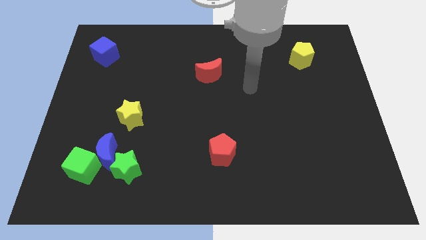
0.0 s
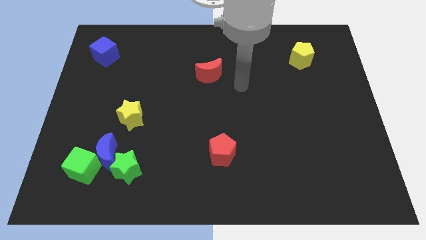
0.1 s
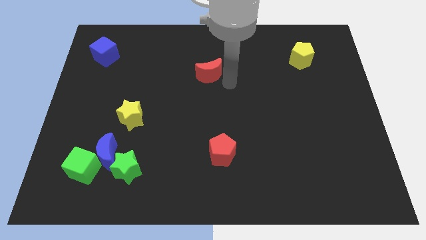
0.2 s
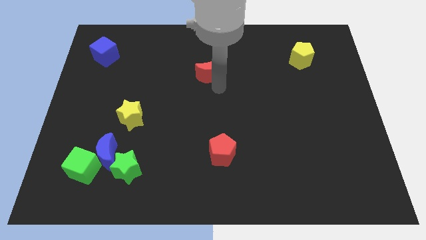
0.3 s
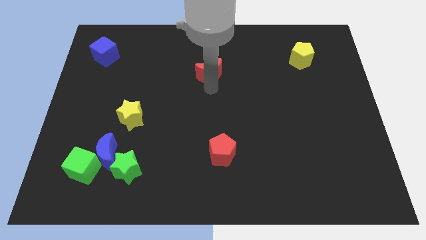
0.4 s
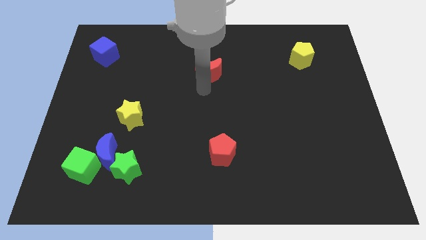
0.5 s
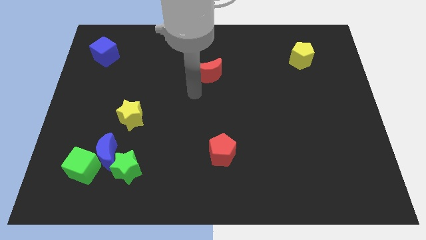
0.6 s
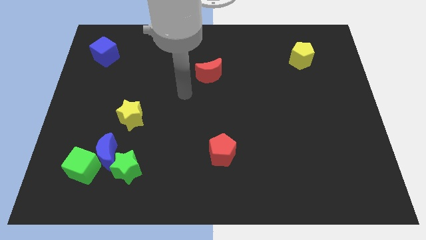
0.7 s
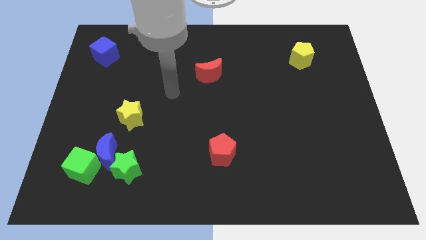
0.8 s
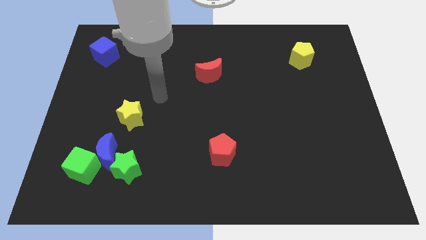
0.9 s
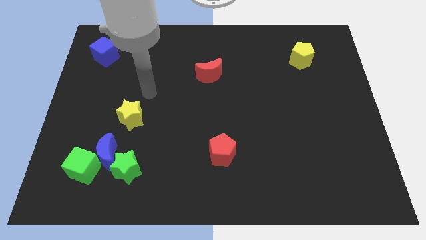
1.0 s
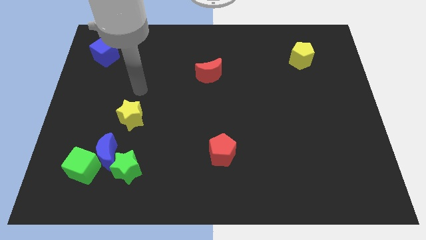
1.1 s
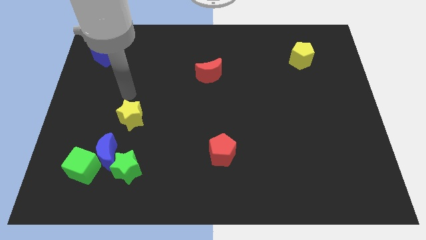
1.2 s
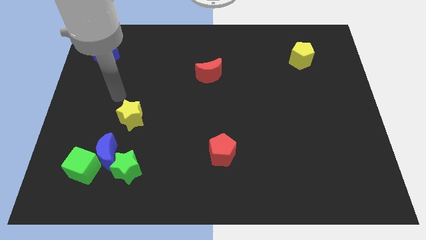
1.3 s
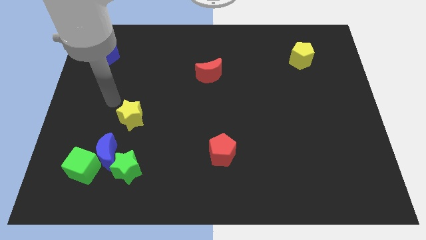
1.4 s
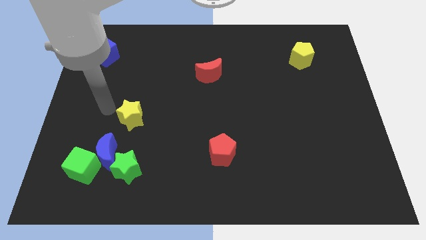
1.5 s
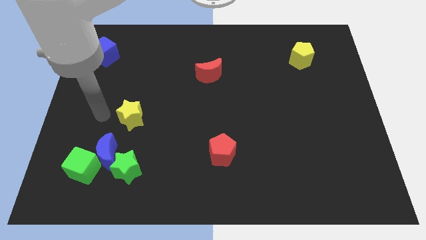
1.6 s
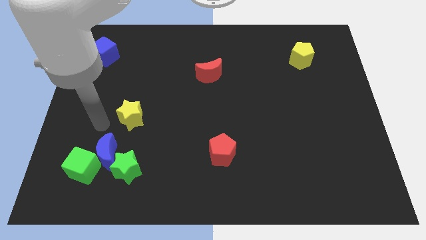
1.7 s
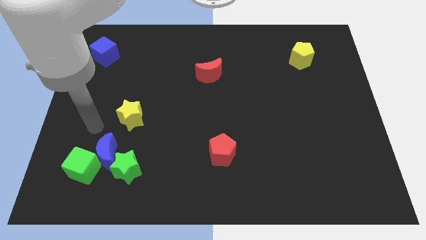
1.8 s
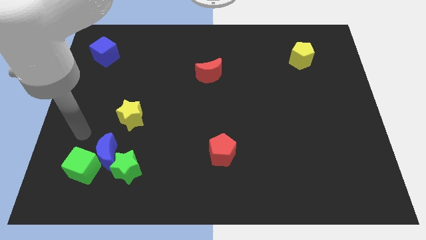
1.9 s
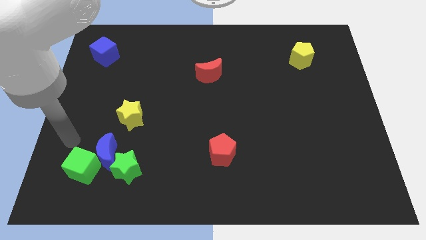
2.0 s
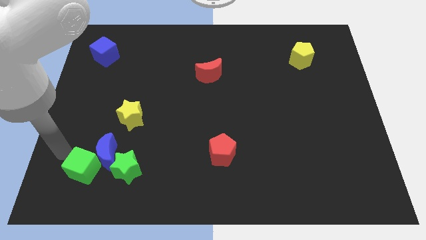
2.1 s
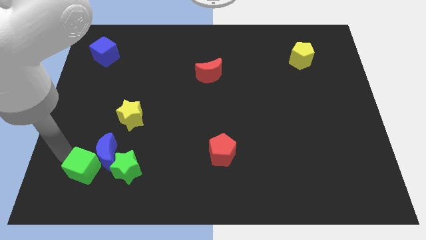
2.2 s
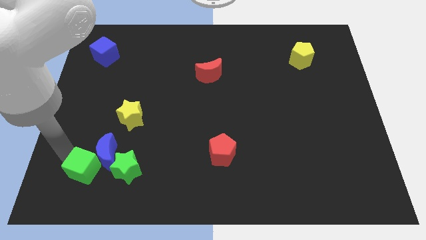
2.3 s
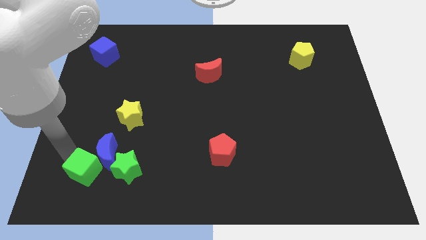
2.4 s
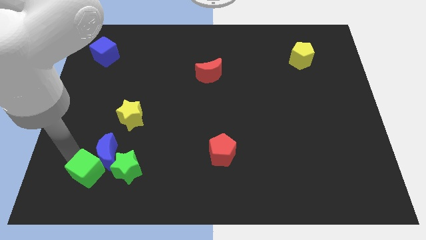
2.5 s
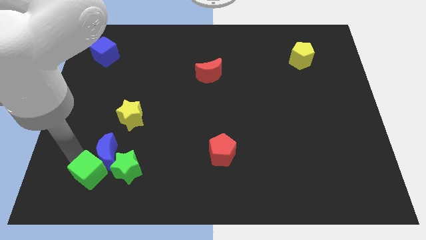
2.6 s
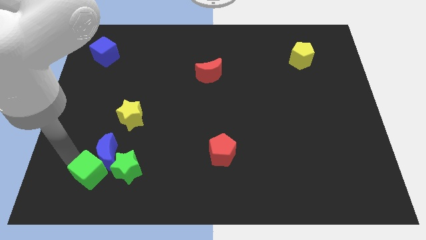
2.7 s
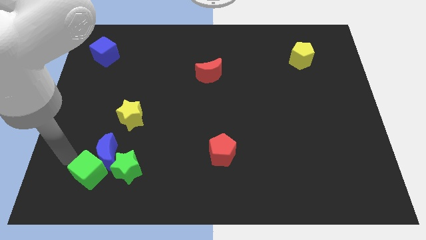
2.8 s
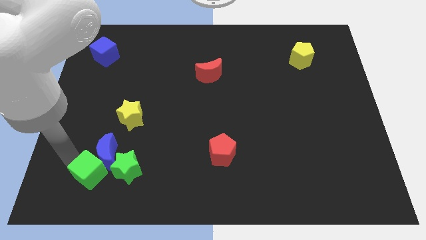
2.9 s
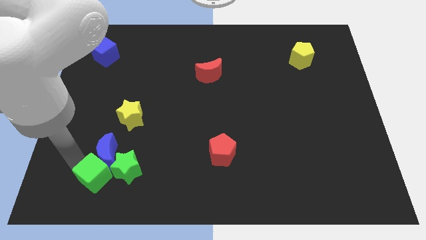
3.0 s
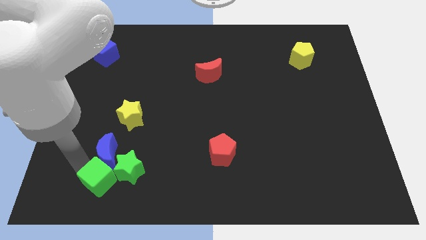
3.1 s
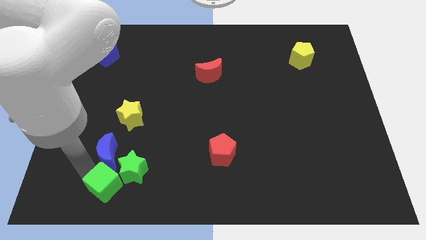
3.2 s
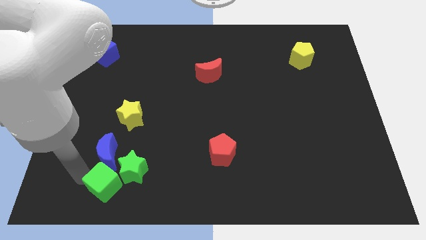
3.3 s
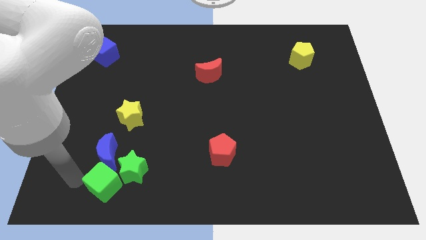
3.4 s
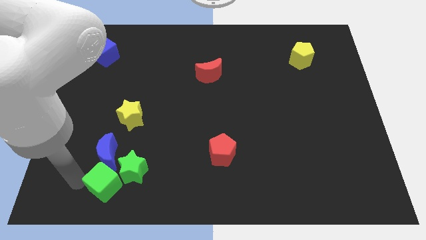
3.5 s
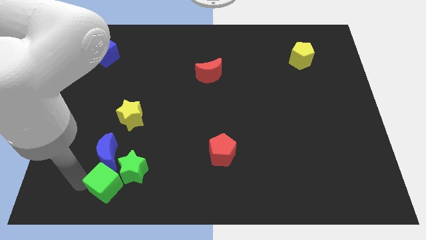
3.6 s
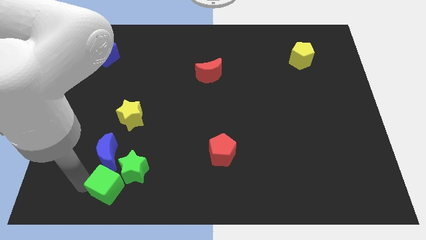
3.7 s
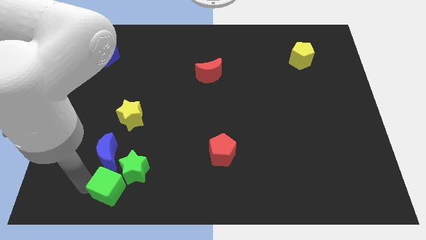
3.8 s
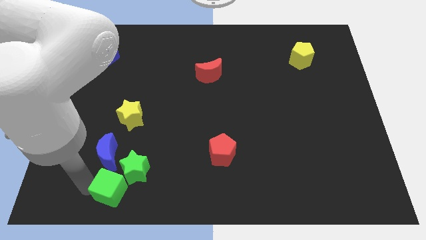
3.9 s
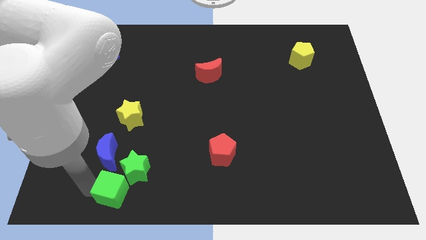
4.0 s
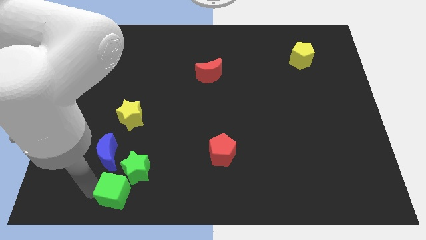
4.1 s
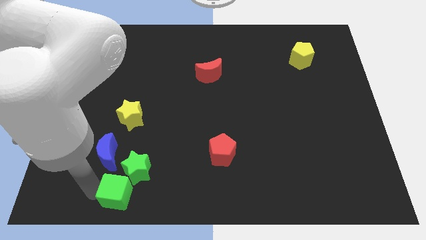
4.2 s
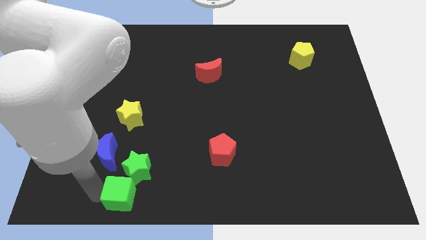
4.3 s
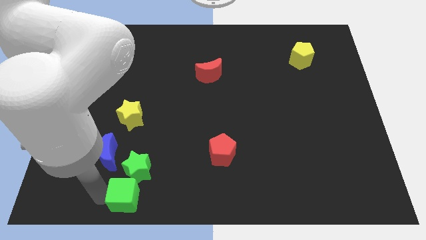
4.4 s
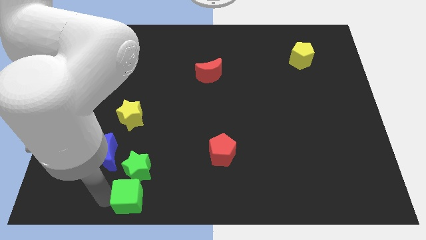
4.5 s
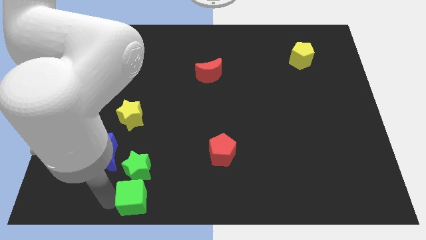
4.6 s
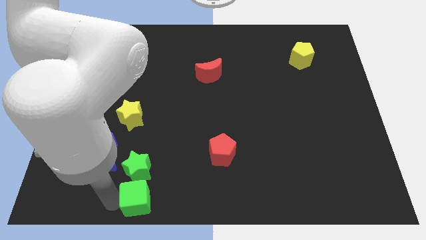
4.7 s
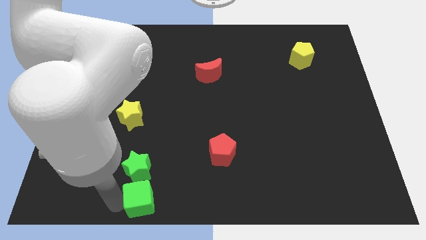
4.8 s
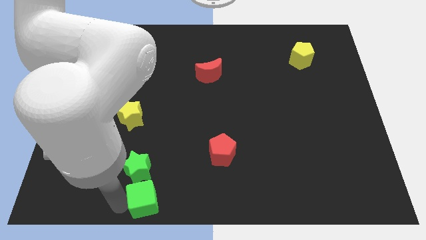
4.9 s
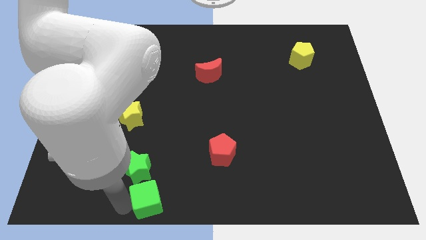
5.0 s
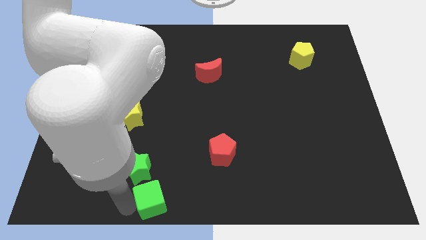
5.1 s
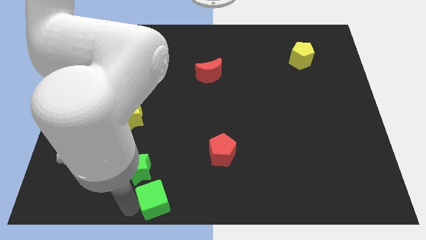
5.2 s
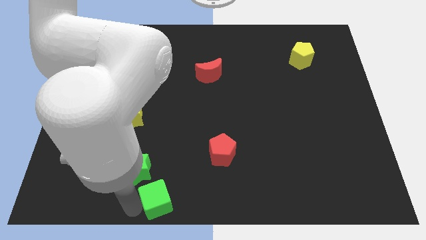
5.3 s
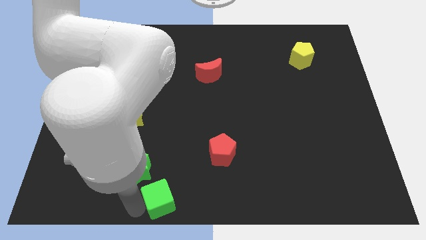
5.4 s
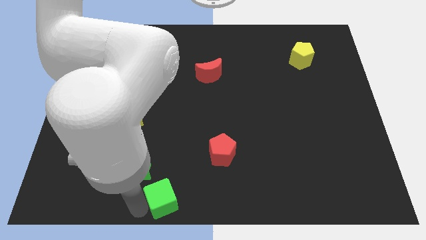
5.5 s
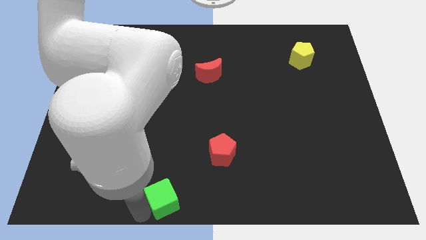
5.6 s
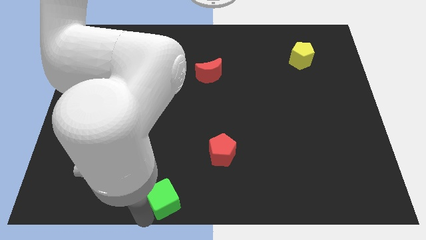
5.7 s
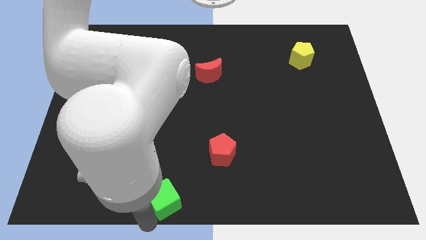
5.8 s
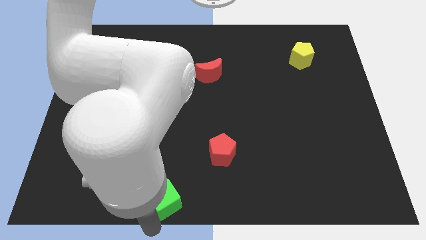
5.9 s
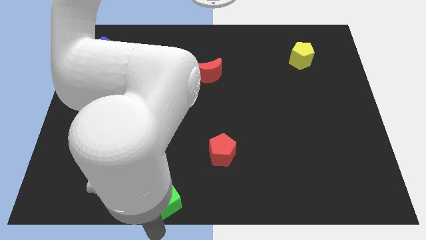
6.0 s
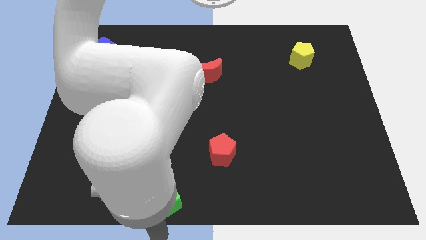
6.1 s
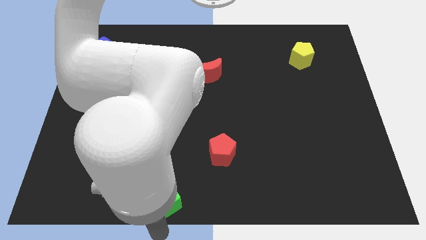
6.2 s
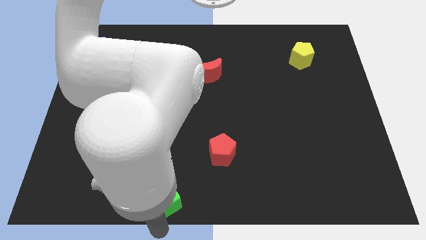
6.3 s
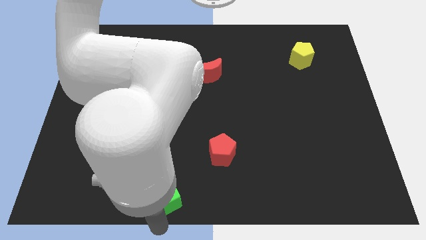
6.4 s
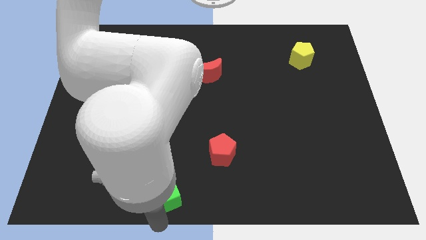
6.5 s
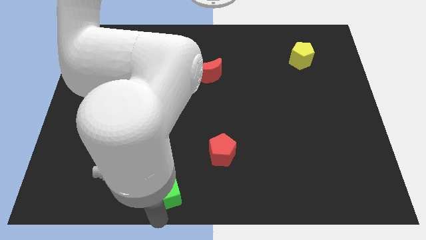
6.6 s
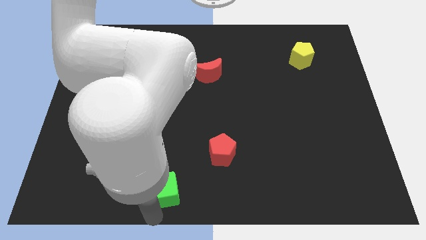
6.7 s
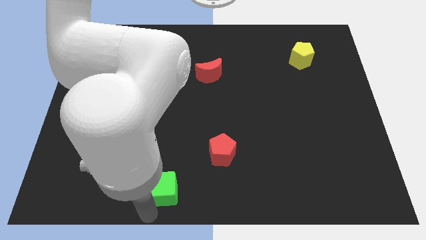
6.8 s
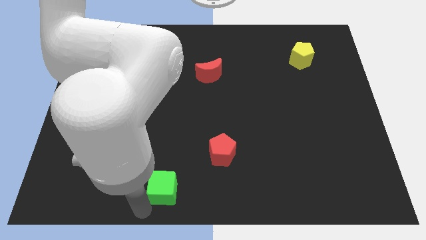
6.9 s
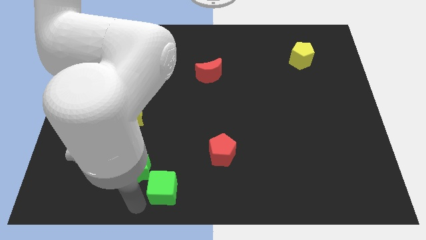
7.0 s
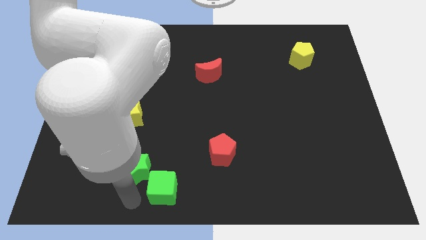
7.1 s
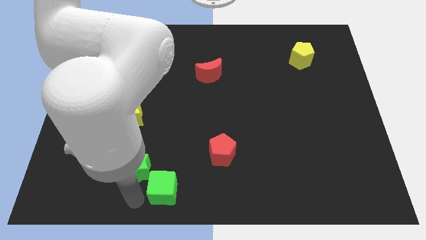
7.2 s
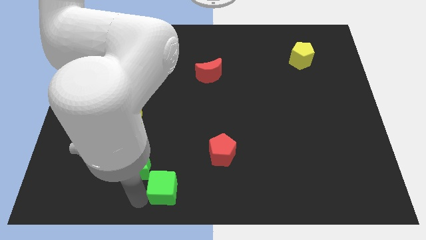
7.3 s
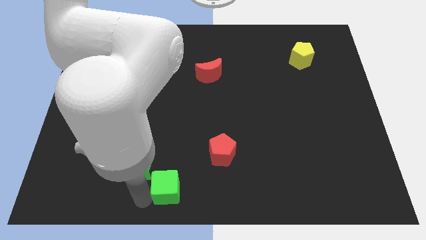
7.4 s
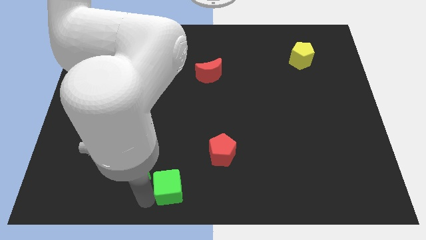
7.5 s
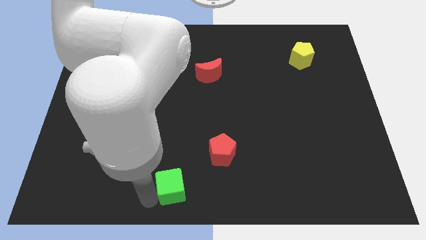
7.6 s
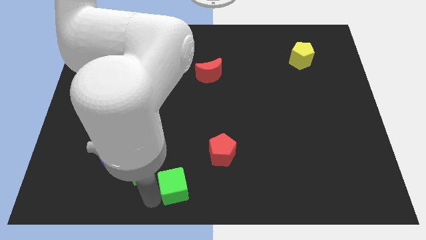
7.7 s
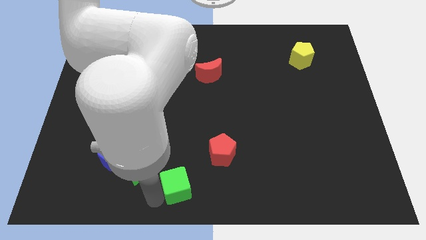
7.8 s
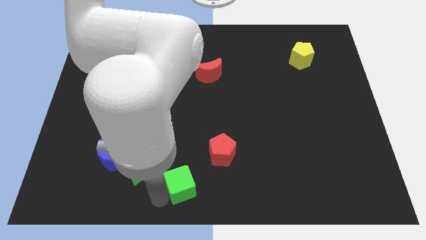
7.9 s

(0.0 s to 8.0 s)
move the green cube to the right

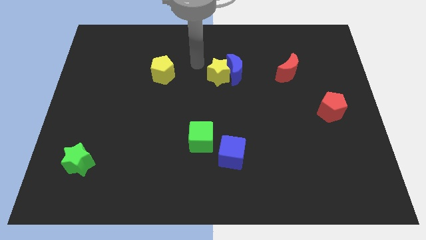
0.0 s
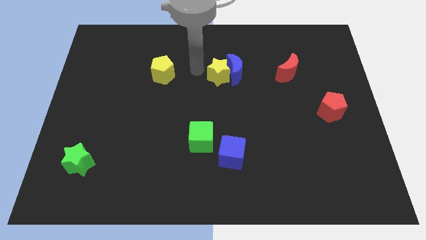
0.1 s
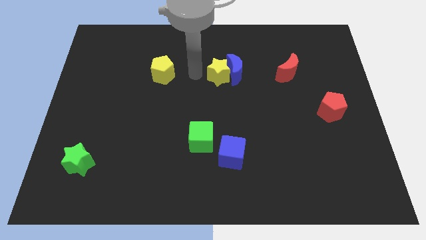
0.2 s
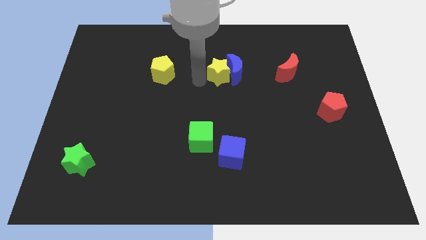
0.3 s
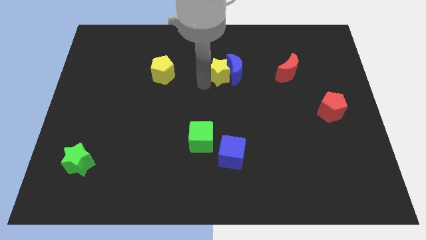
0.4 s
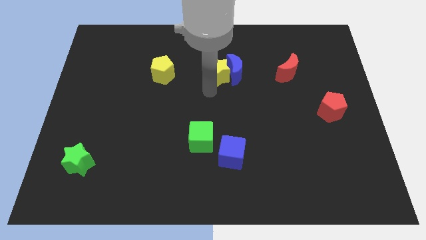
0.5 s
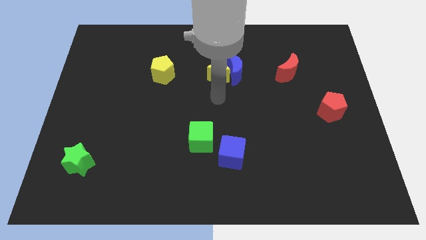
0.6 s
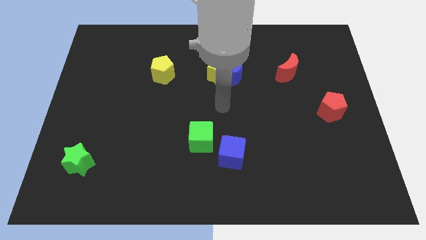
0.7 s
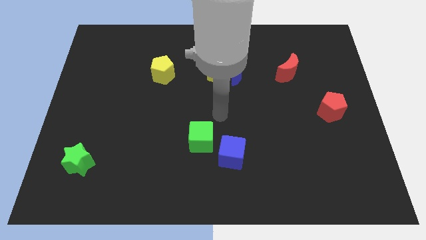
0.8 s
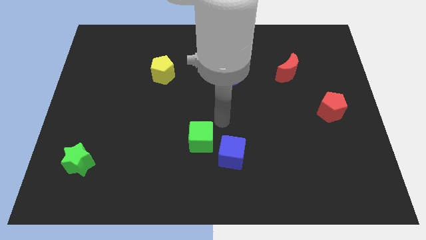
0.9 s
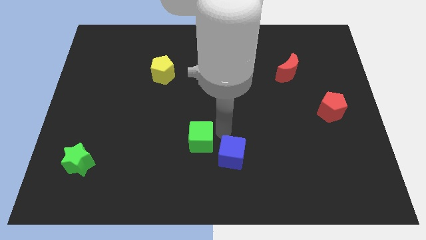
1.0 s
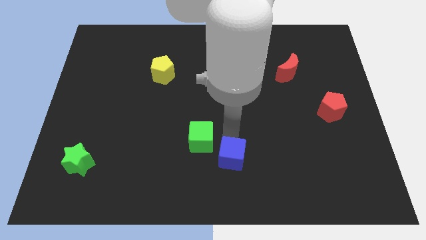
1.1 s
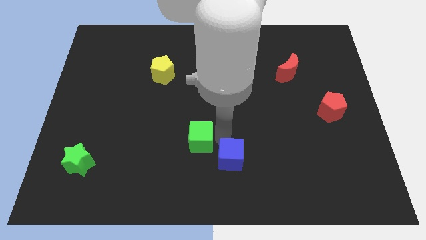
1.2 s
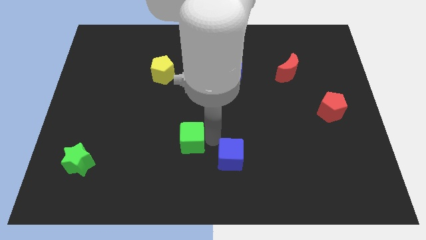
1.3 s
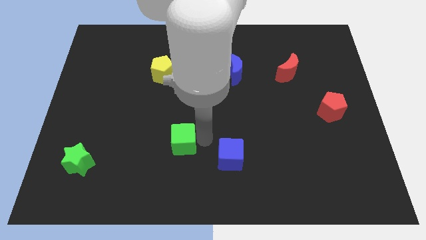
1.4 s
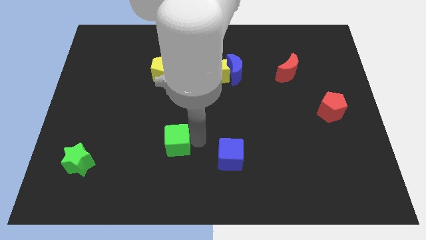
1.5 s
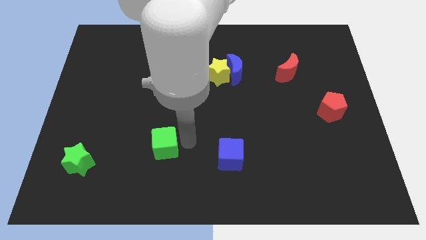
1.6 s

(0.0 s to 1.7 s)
slightly push the green cube left
